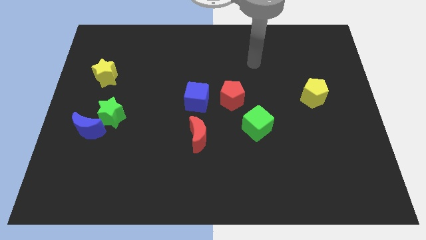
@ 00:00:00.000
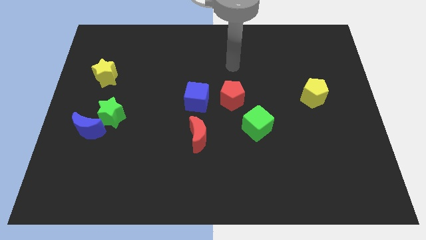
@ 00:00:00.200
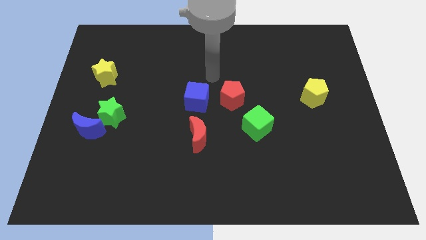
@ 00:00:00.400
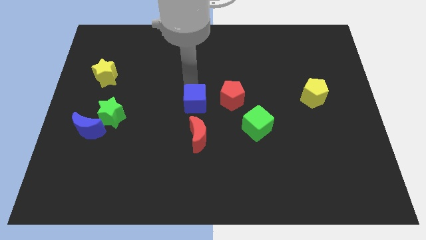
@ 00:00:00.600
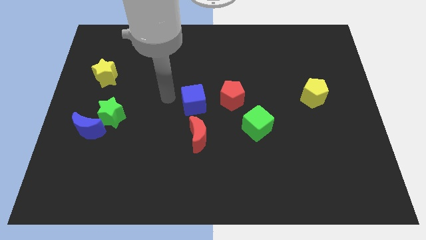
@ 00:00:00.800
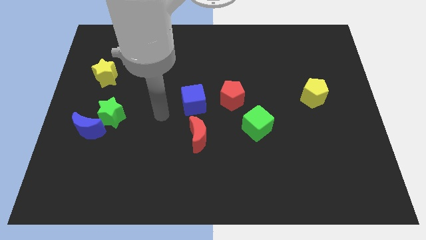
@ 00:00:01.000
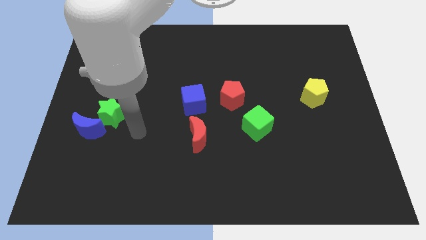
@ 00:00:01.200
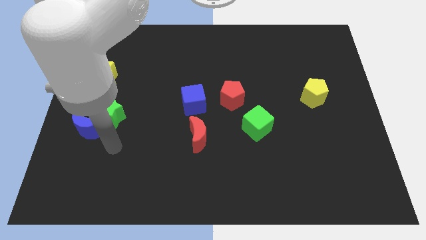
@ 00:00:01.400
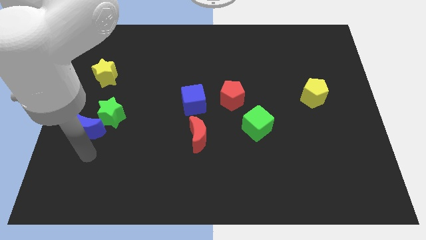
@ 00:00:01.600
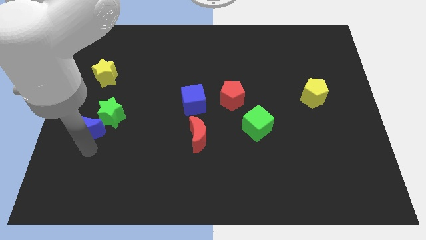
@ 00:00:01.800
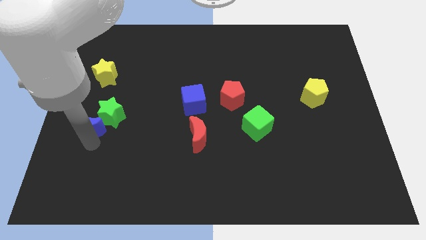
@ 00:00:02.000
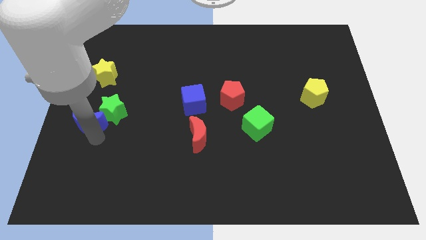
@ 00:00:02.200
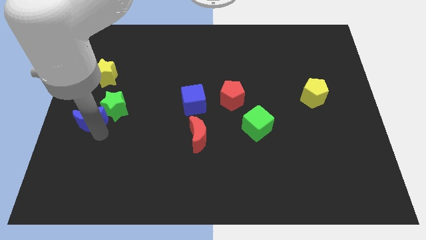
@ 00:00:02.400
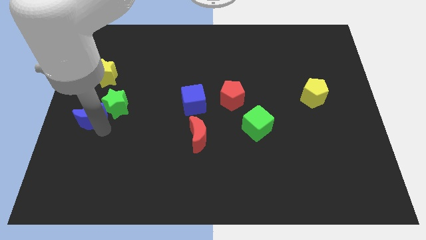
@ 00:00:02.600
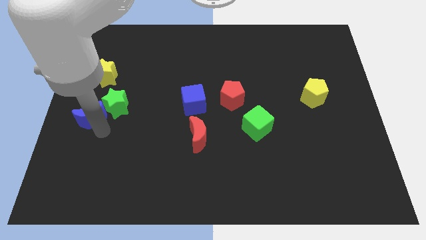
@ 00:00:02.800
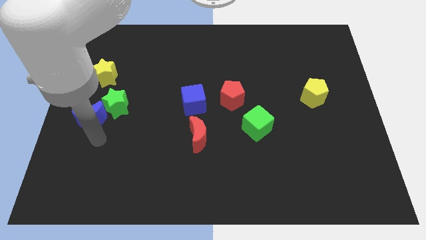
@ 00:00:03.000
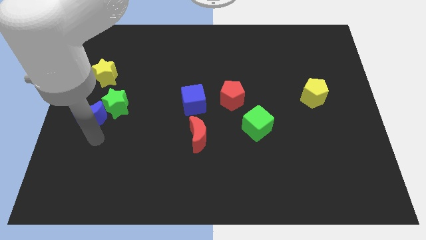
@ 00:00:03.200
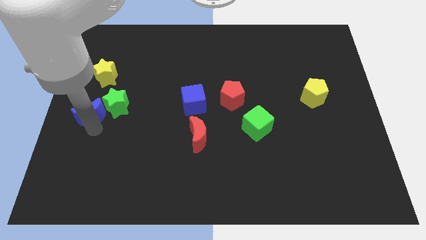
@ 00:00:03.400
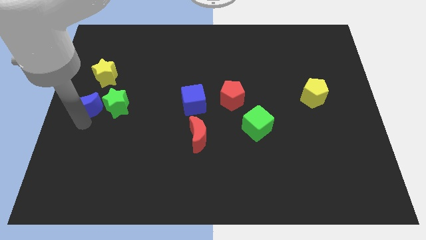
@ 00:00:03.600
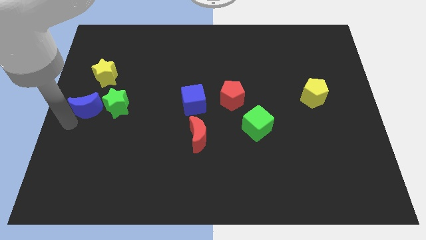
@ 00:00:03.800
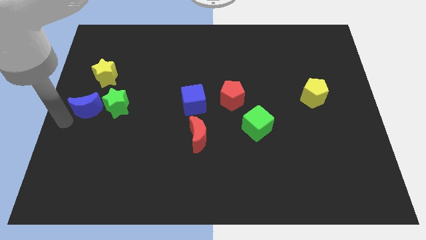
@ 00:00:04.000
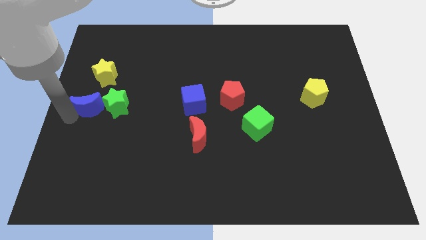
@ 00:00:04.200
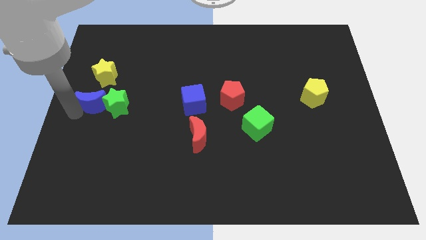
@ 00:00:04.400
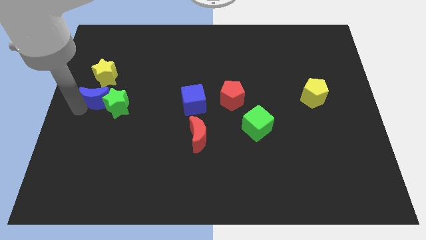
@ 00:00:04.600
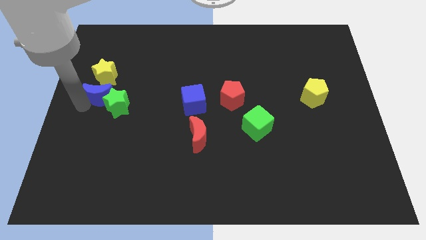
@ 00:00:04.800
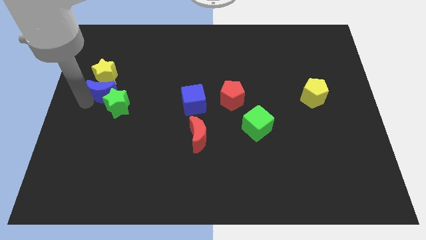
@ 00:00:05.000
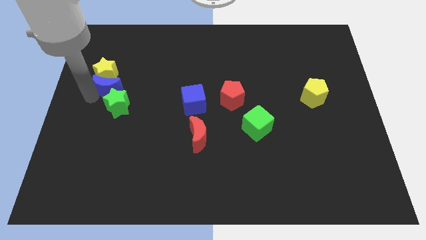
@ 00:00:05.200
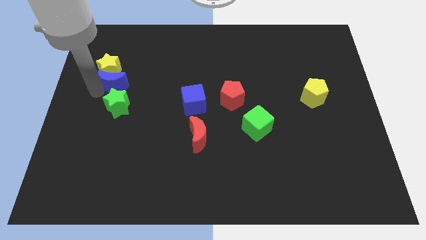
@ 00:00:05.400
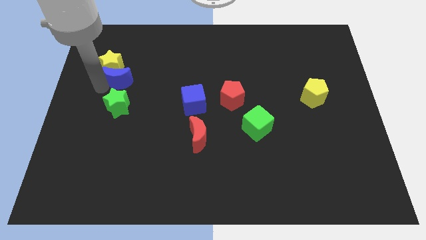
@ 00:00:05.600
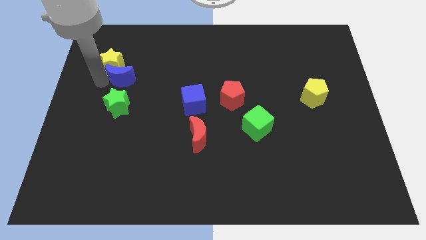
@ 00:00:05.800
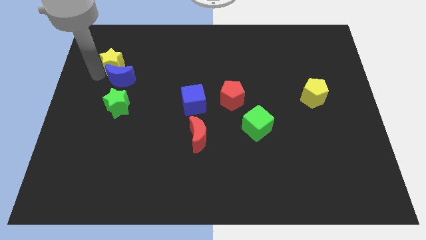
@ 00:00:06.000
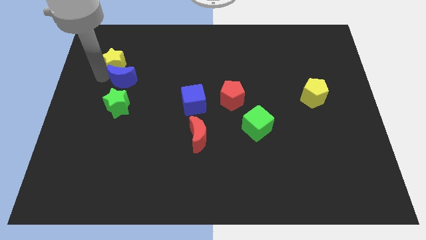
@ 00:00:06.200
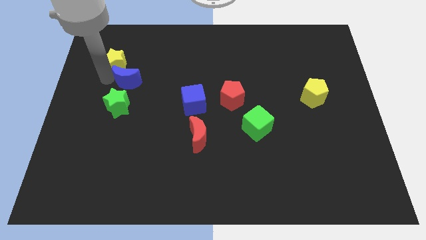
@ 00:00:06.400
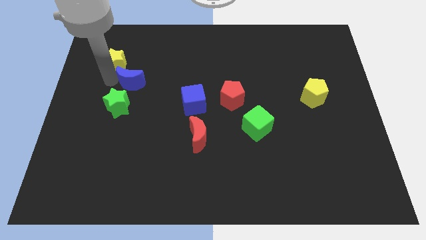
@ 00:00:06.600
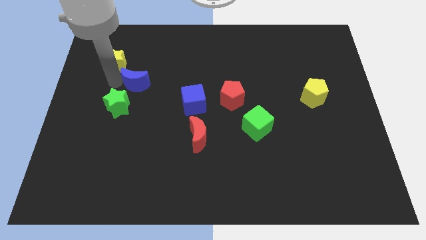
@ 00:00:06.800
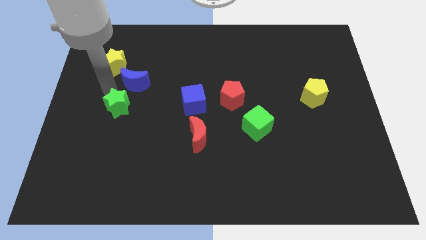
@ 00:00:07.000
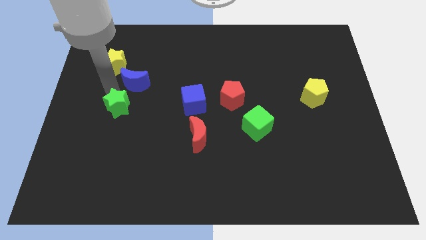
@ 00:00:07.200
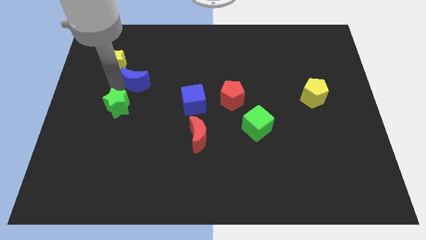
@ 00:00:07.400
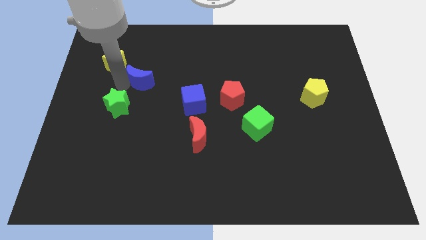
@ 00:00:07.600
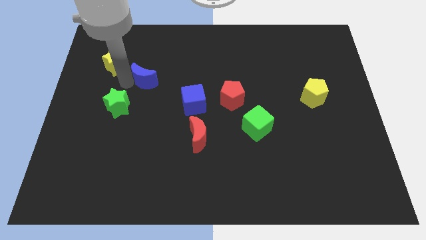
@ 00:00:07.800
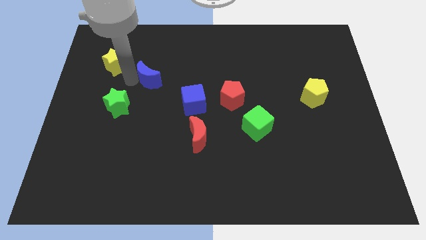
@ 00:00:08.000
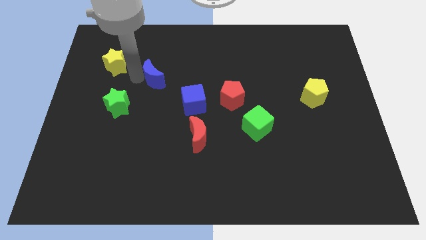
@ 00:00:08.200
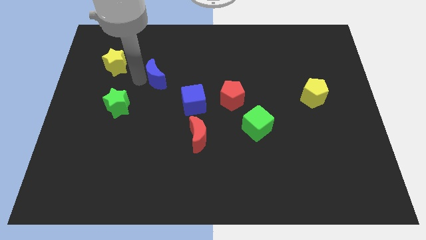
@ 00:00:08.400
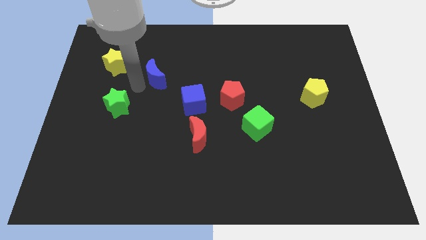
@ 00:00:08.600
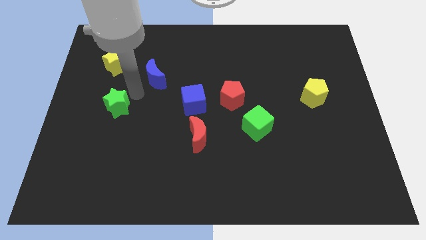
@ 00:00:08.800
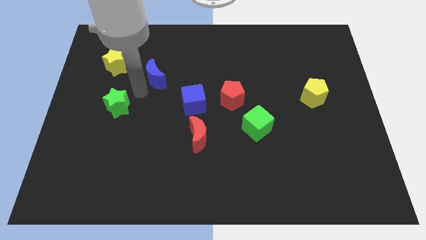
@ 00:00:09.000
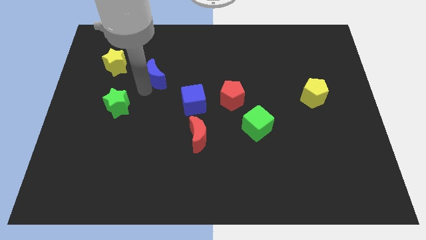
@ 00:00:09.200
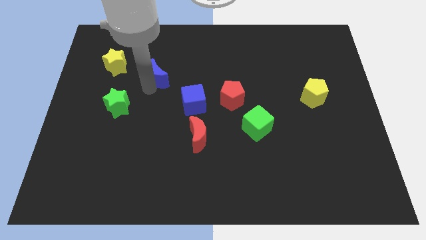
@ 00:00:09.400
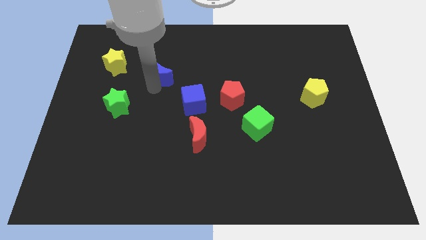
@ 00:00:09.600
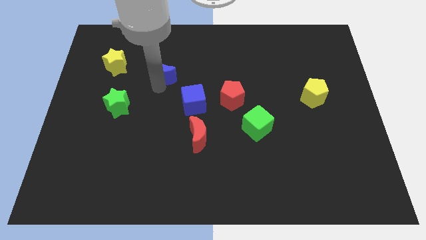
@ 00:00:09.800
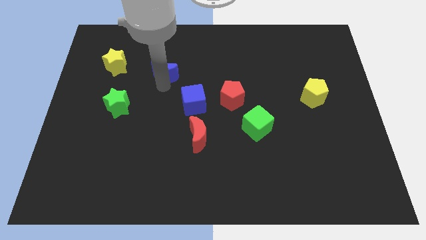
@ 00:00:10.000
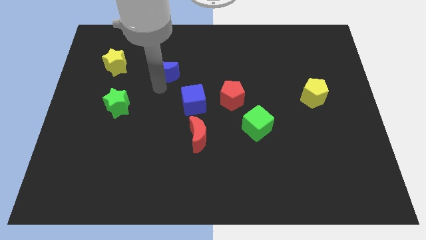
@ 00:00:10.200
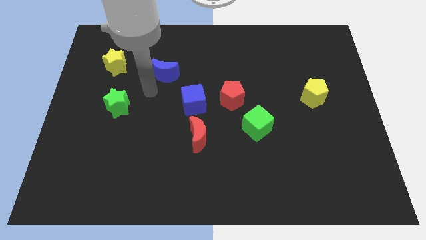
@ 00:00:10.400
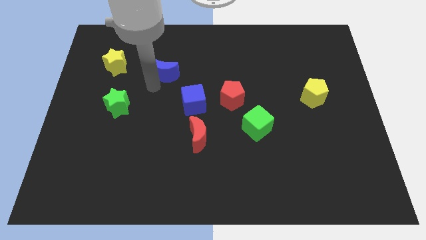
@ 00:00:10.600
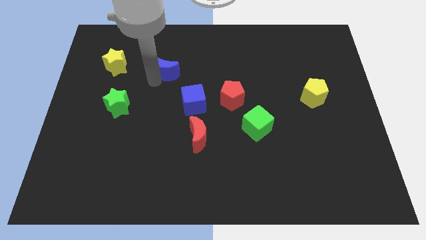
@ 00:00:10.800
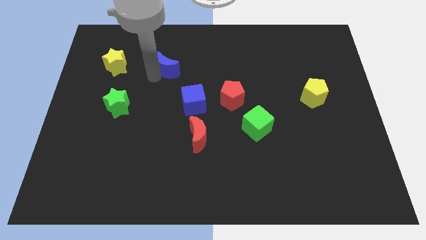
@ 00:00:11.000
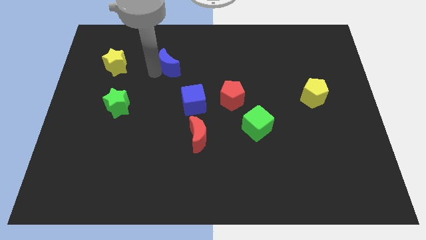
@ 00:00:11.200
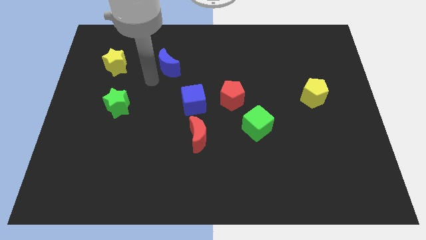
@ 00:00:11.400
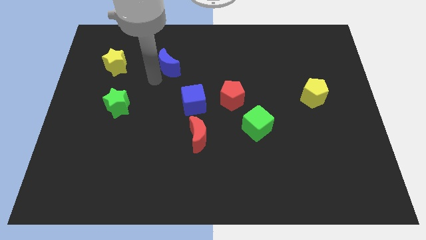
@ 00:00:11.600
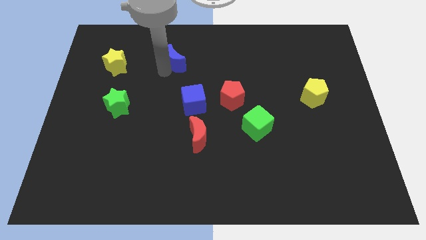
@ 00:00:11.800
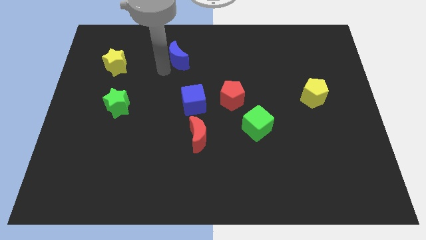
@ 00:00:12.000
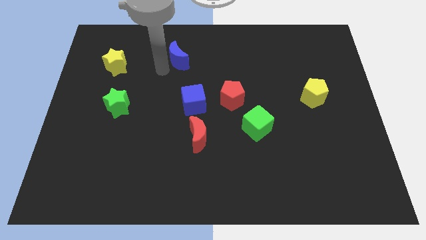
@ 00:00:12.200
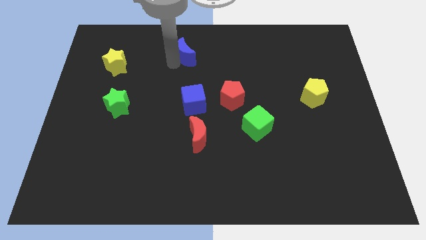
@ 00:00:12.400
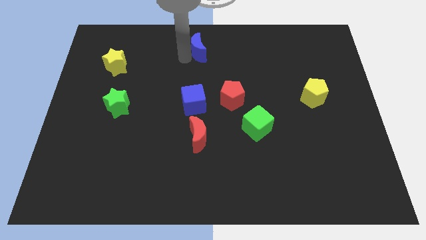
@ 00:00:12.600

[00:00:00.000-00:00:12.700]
push the blue moon to the towards your base
